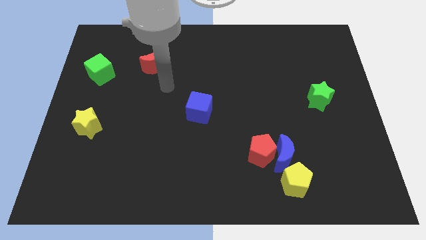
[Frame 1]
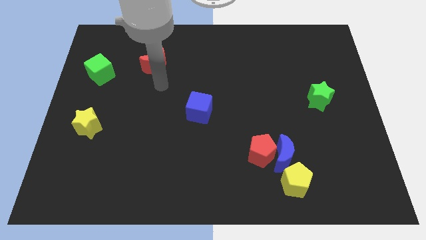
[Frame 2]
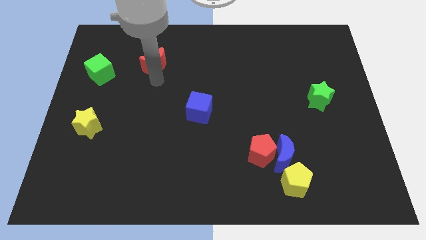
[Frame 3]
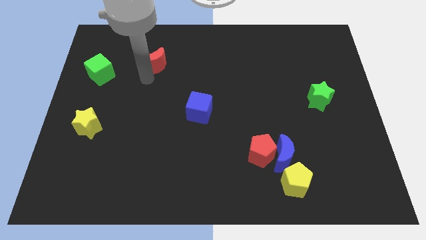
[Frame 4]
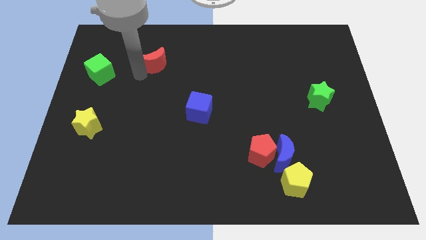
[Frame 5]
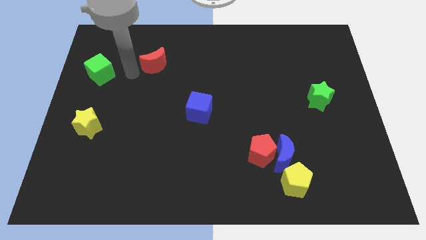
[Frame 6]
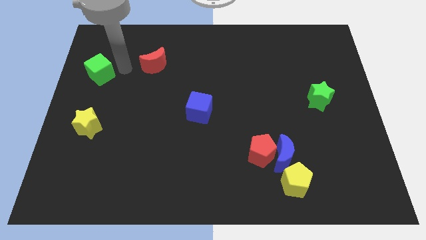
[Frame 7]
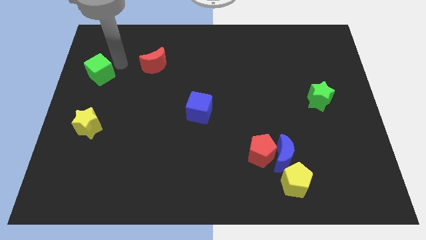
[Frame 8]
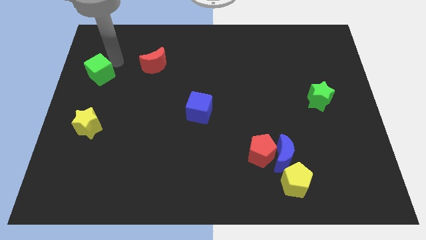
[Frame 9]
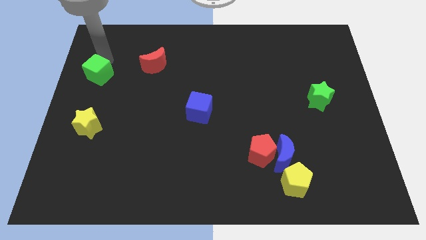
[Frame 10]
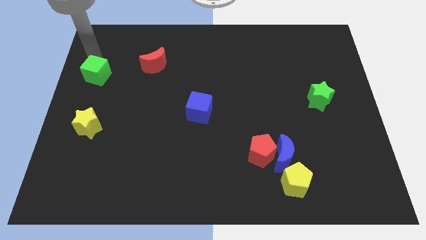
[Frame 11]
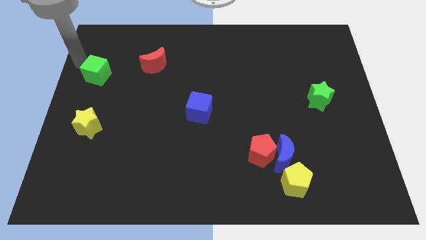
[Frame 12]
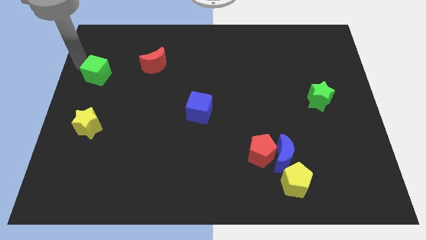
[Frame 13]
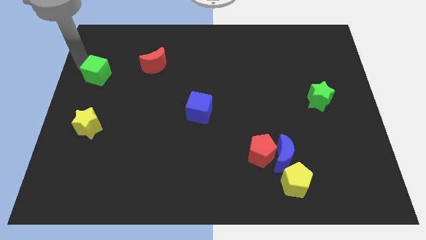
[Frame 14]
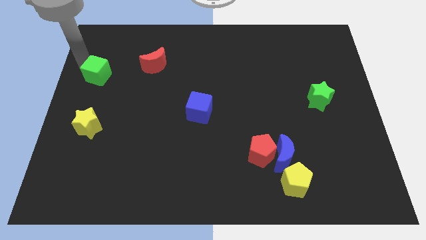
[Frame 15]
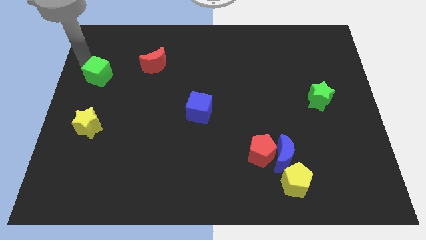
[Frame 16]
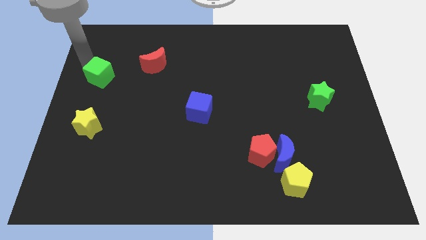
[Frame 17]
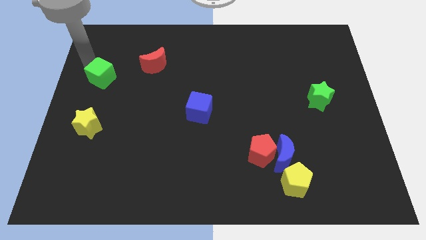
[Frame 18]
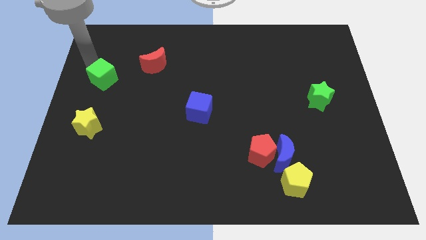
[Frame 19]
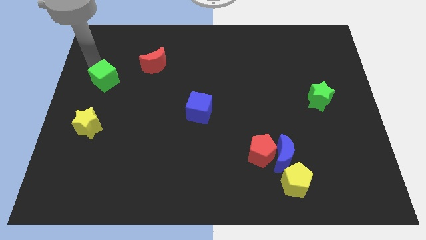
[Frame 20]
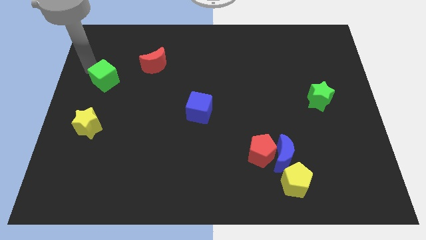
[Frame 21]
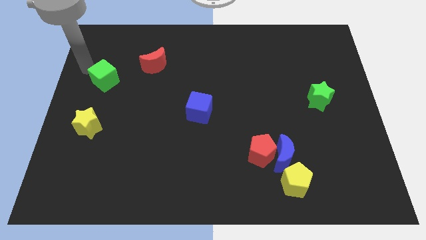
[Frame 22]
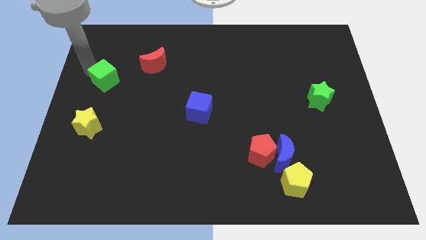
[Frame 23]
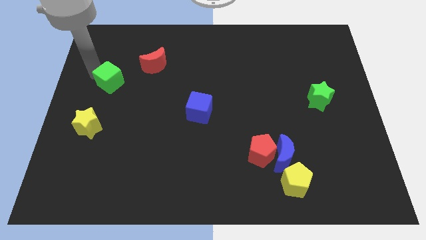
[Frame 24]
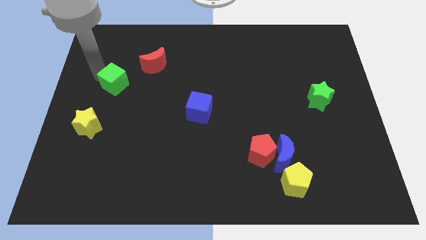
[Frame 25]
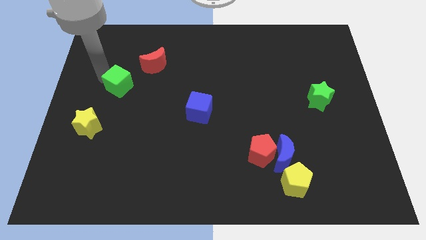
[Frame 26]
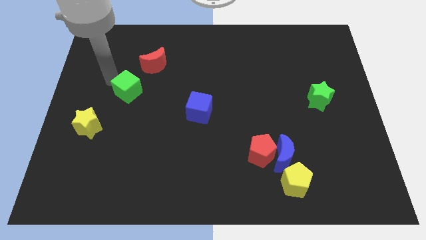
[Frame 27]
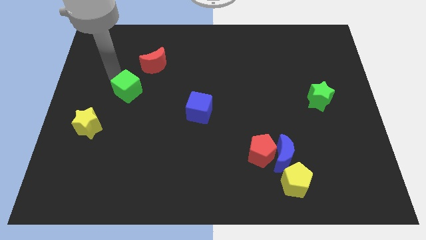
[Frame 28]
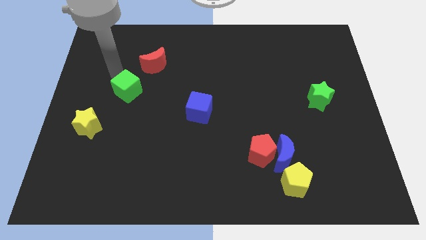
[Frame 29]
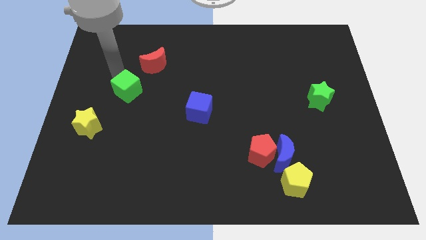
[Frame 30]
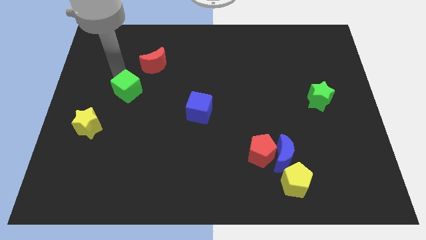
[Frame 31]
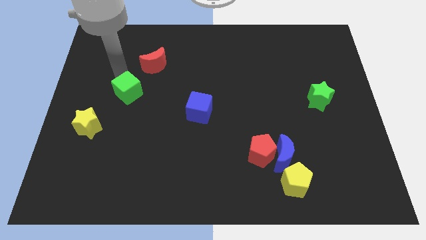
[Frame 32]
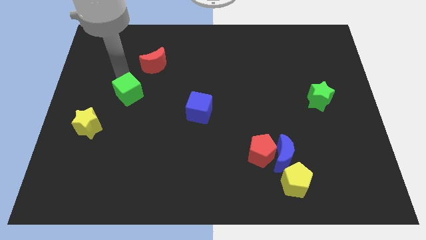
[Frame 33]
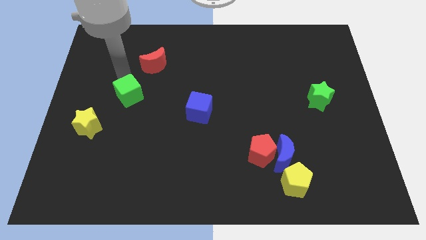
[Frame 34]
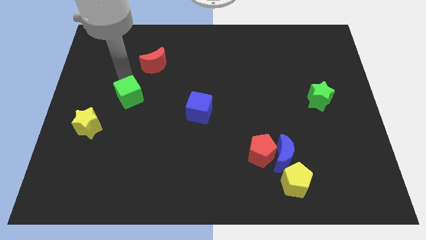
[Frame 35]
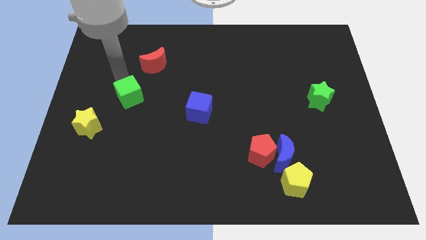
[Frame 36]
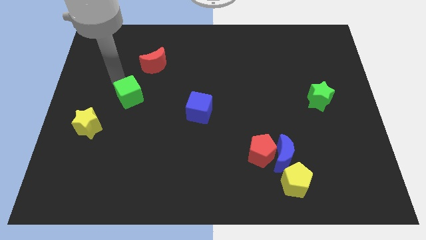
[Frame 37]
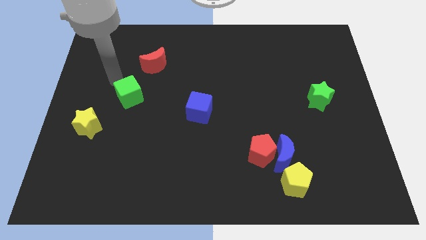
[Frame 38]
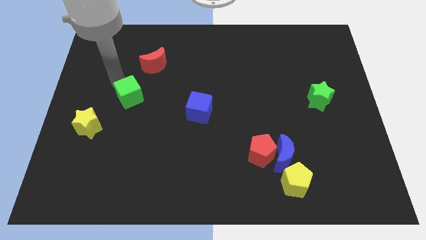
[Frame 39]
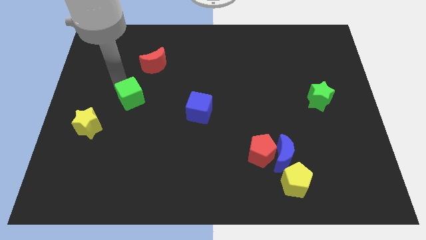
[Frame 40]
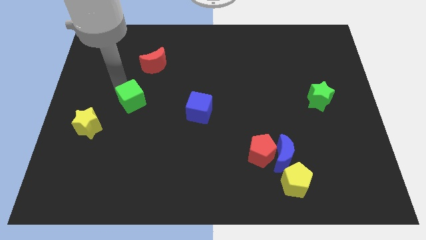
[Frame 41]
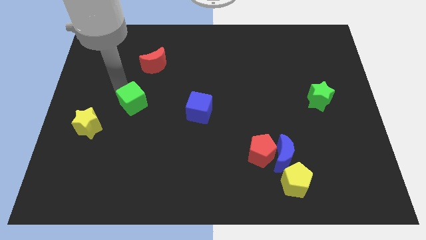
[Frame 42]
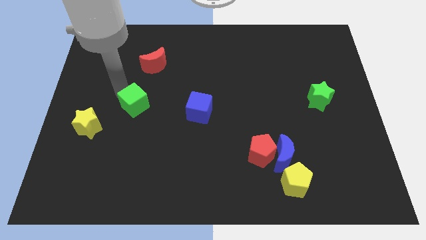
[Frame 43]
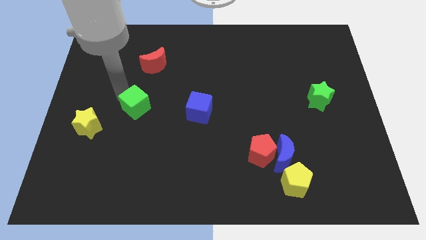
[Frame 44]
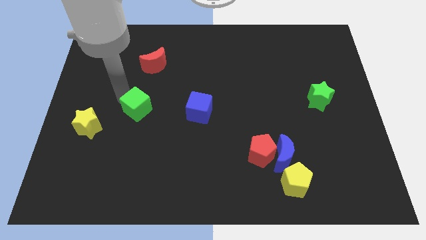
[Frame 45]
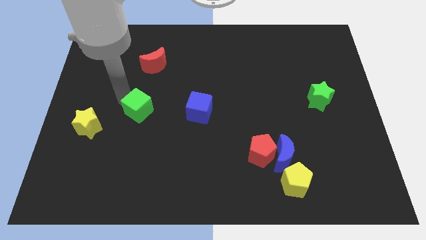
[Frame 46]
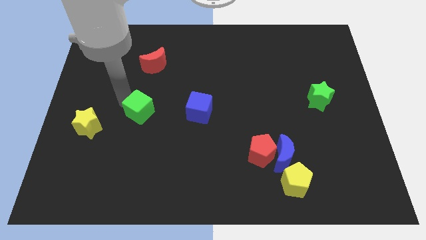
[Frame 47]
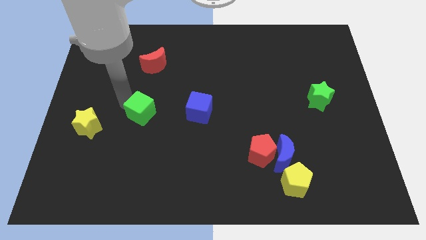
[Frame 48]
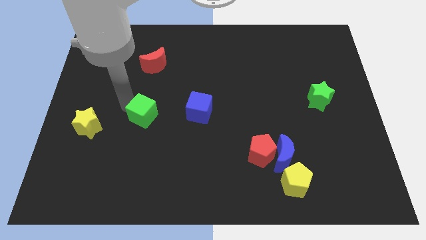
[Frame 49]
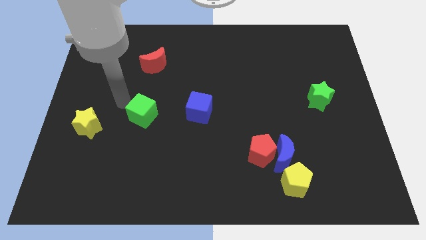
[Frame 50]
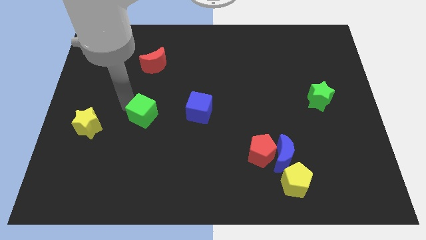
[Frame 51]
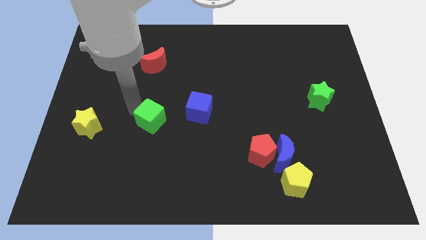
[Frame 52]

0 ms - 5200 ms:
push the green cube downwards and to the right

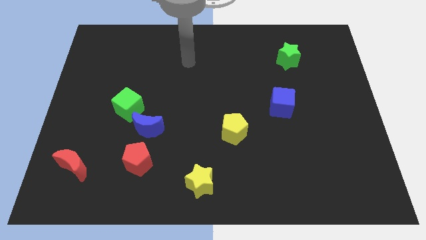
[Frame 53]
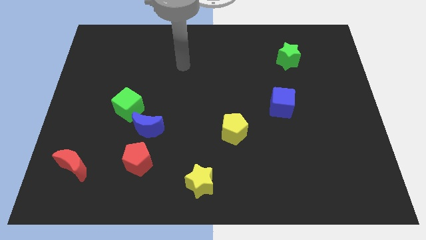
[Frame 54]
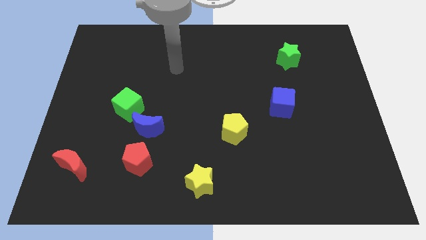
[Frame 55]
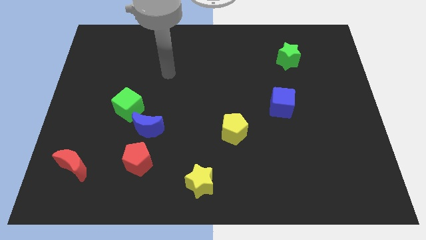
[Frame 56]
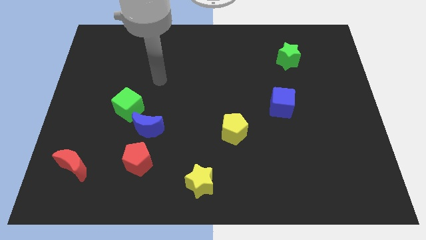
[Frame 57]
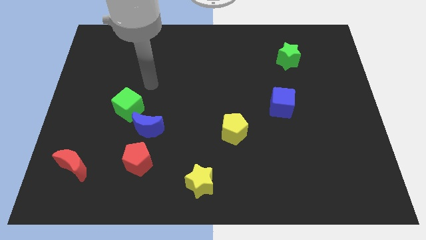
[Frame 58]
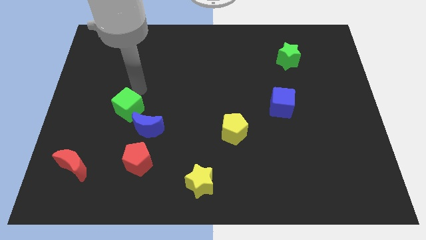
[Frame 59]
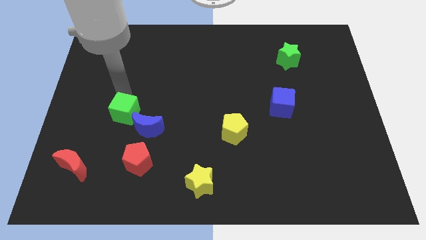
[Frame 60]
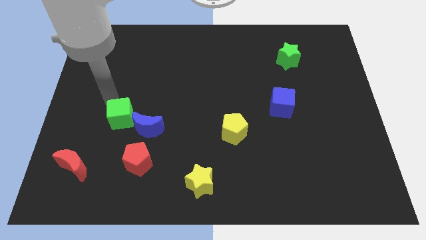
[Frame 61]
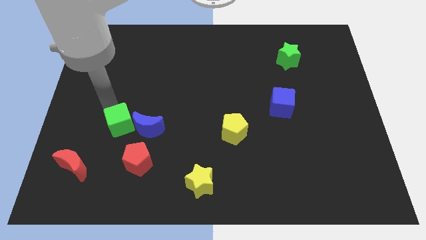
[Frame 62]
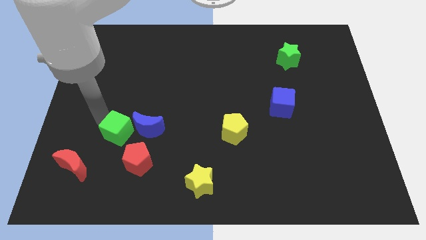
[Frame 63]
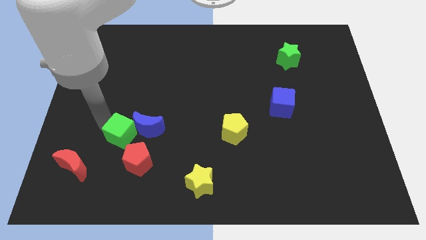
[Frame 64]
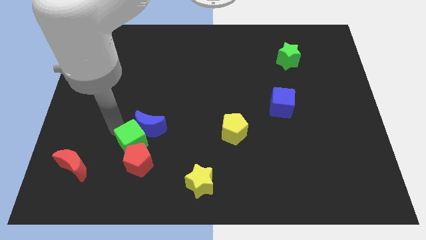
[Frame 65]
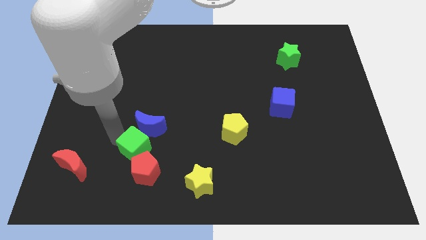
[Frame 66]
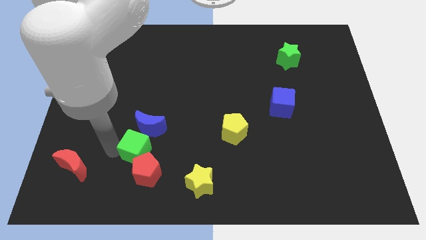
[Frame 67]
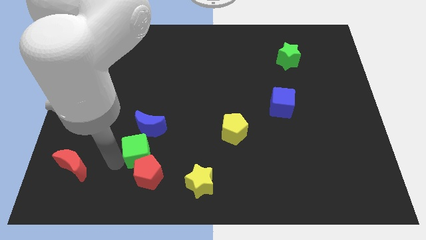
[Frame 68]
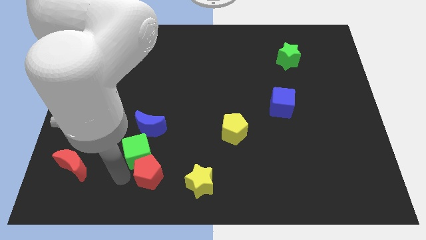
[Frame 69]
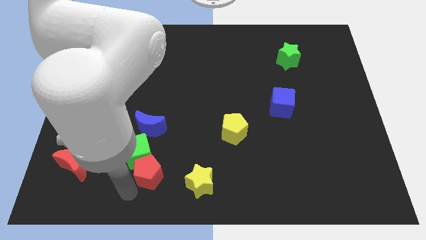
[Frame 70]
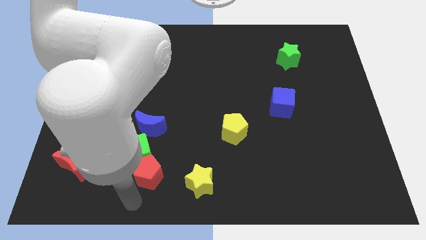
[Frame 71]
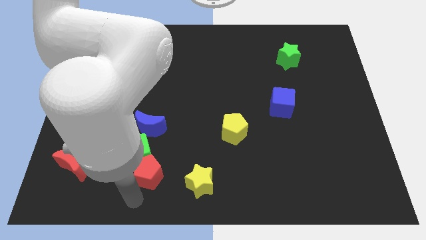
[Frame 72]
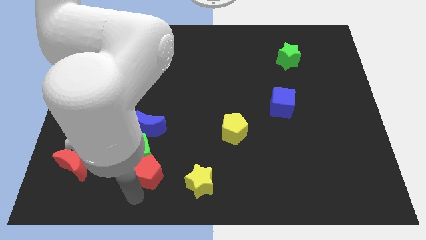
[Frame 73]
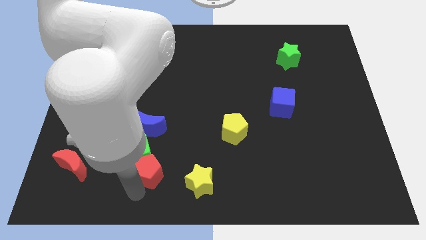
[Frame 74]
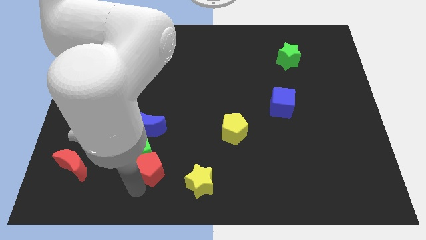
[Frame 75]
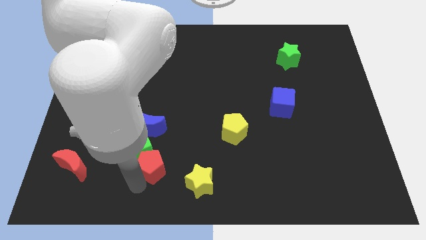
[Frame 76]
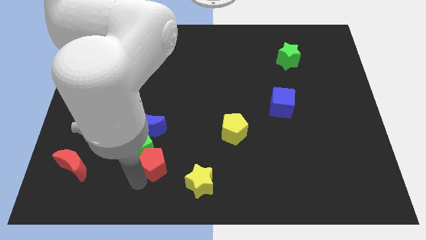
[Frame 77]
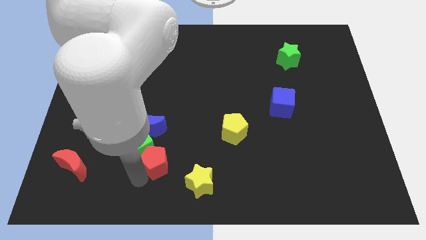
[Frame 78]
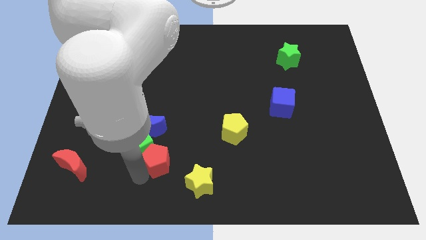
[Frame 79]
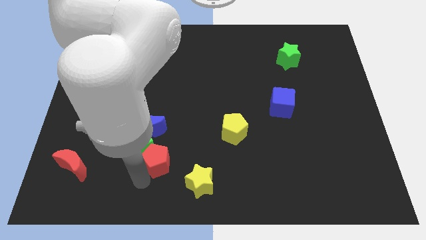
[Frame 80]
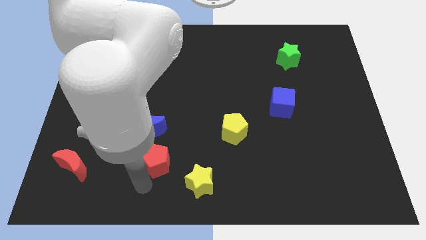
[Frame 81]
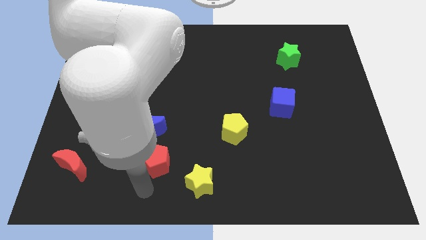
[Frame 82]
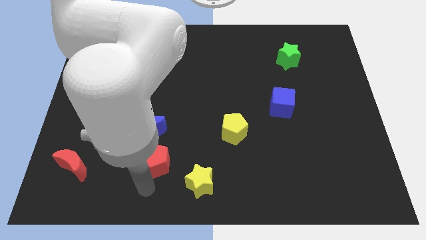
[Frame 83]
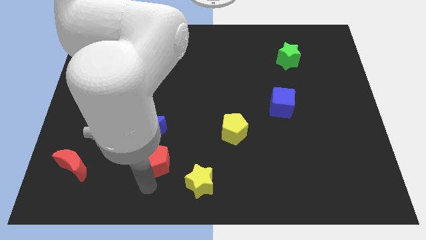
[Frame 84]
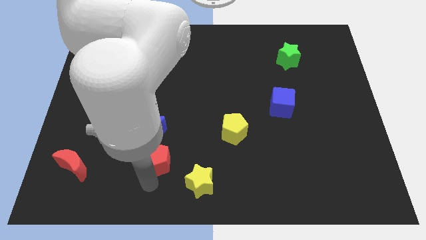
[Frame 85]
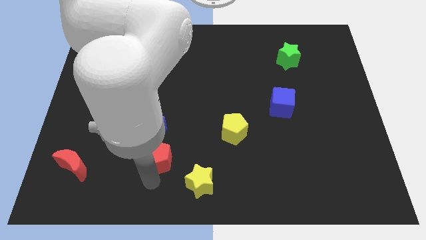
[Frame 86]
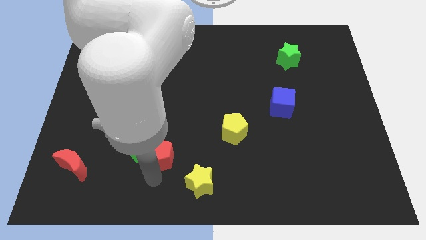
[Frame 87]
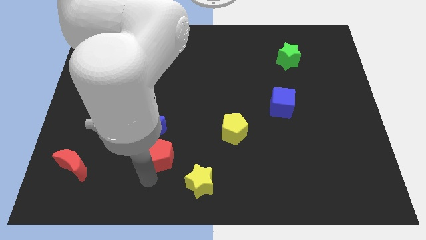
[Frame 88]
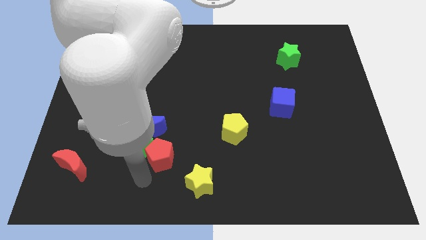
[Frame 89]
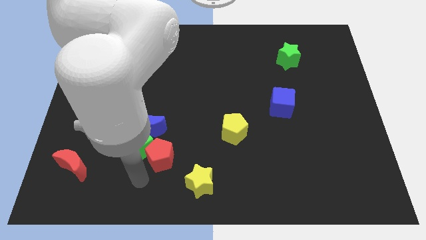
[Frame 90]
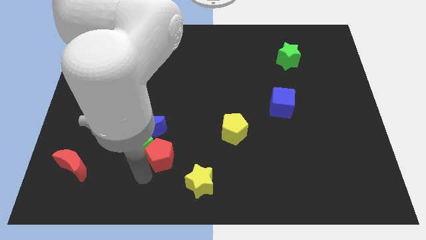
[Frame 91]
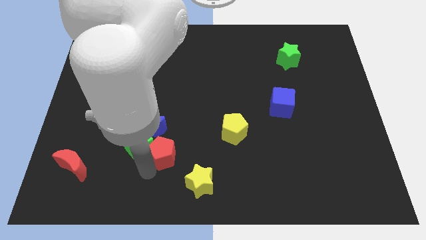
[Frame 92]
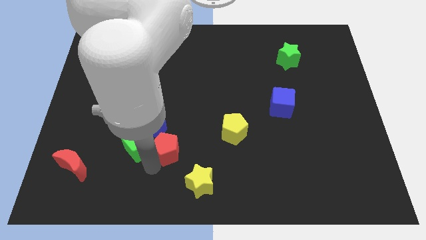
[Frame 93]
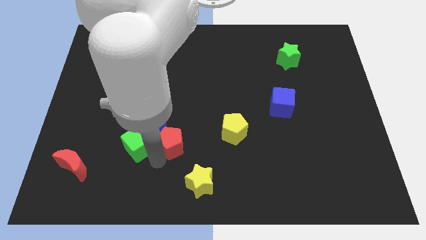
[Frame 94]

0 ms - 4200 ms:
slightly push the red pentagon upwards and to the right
